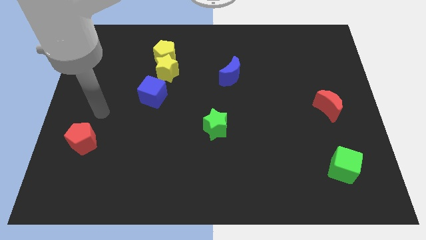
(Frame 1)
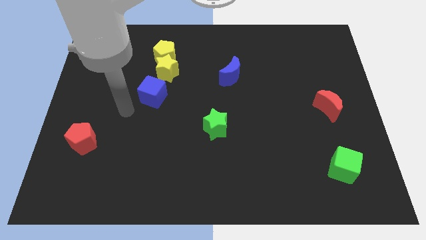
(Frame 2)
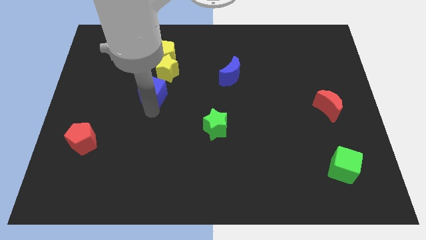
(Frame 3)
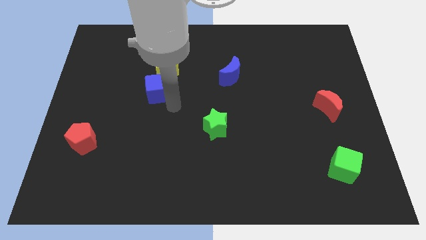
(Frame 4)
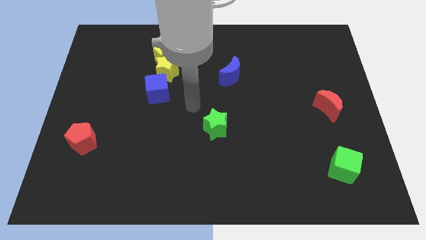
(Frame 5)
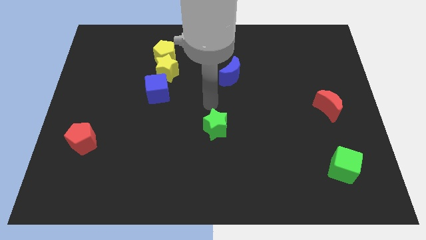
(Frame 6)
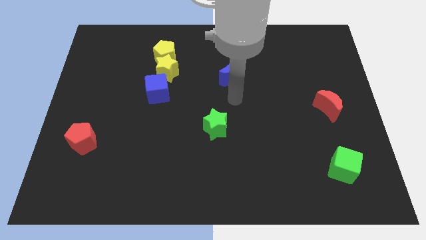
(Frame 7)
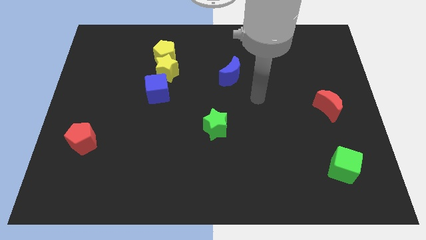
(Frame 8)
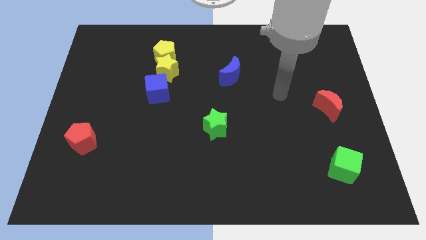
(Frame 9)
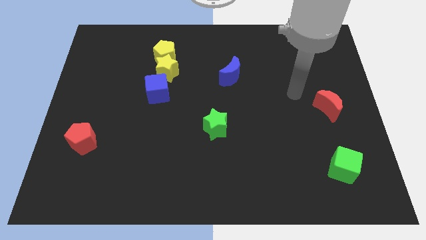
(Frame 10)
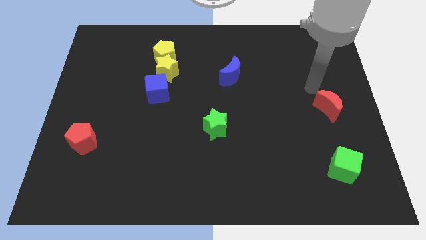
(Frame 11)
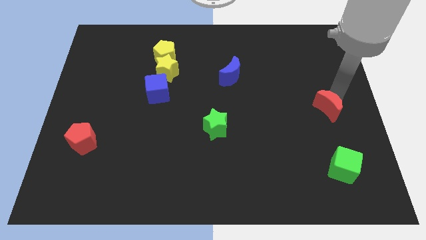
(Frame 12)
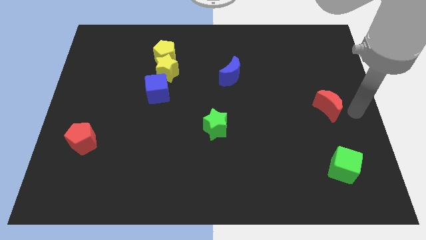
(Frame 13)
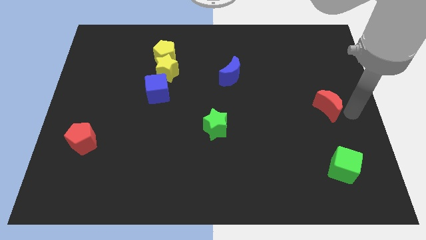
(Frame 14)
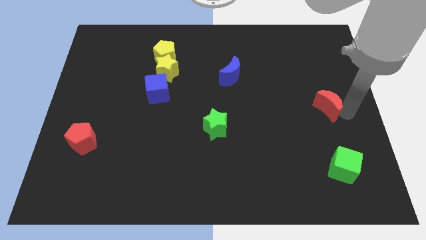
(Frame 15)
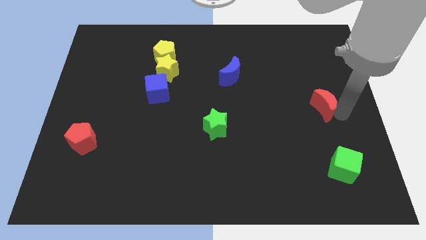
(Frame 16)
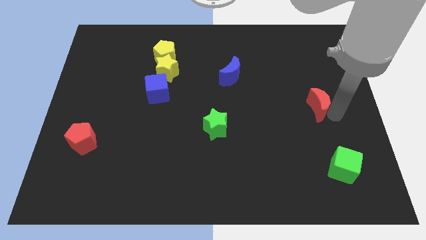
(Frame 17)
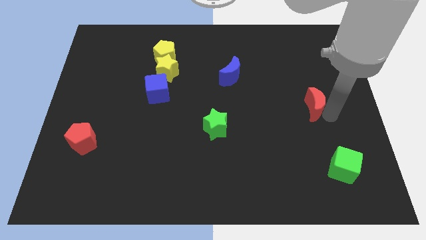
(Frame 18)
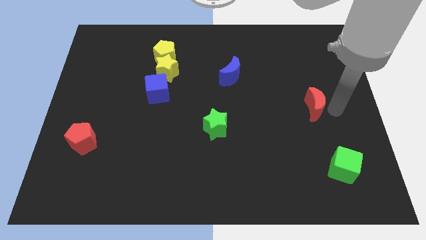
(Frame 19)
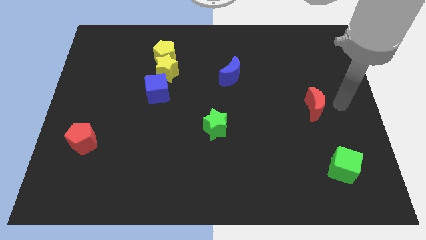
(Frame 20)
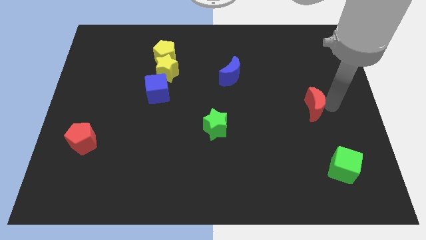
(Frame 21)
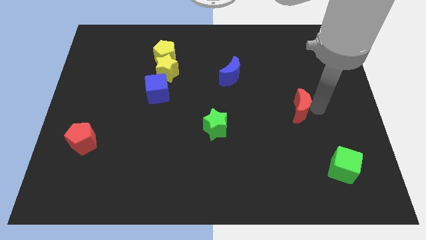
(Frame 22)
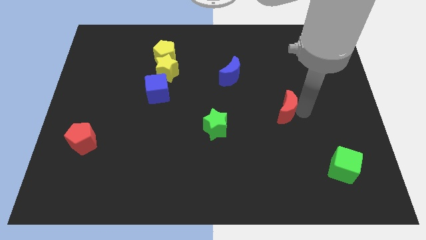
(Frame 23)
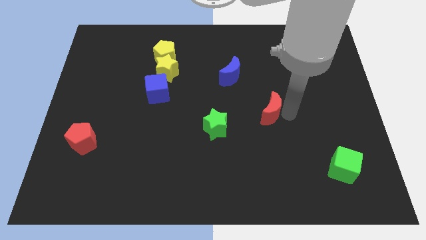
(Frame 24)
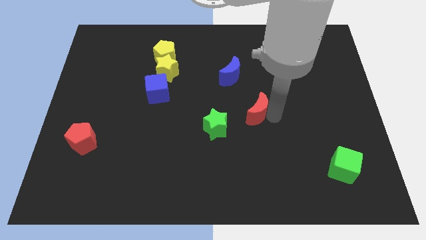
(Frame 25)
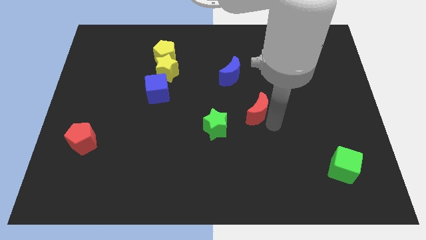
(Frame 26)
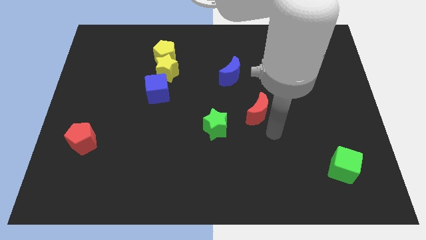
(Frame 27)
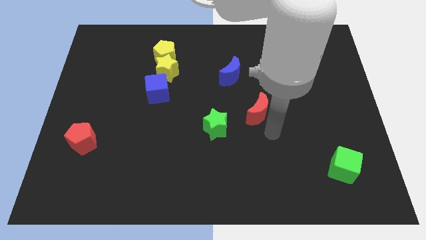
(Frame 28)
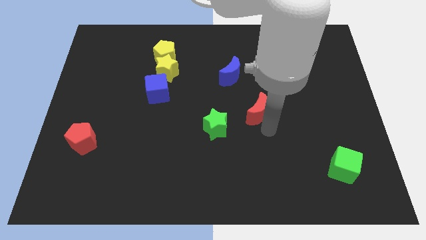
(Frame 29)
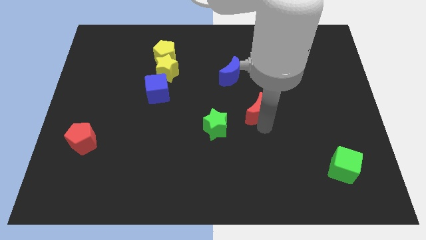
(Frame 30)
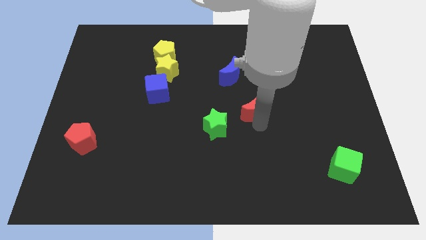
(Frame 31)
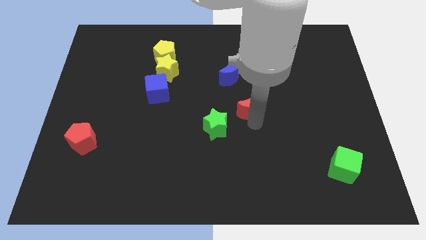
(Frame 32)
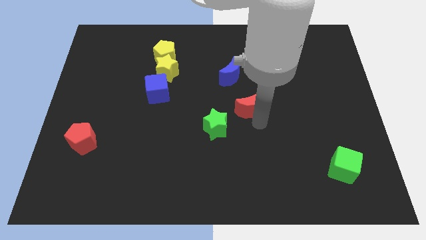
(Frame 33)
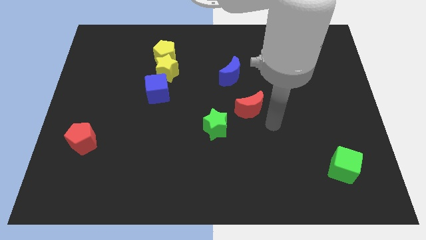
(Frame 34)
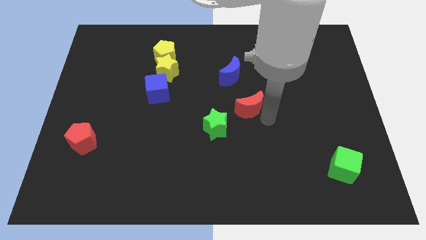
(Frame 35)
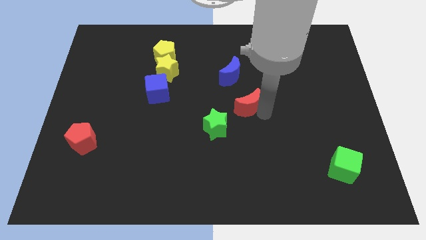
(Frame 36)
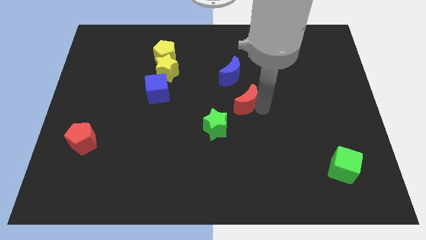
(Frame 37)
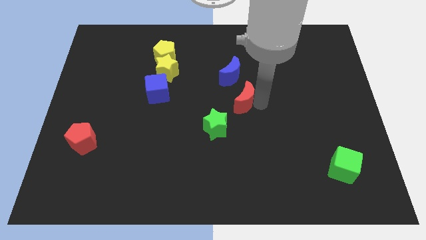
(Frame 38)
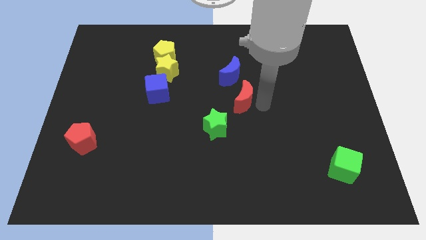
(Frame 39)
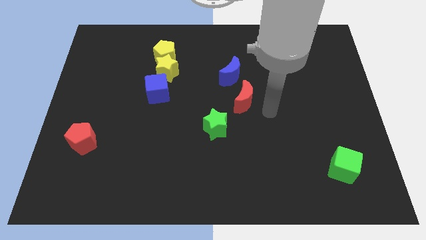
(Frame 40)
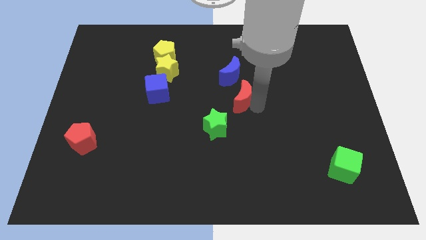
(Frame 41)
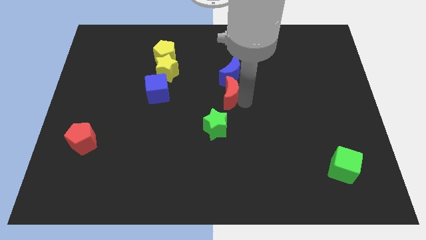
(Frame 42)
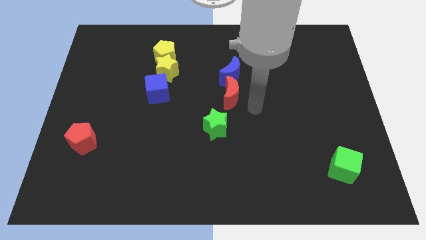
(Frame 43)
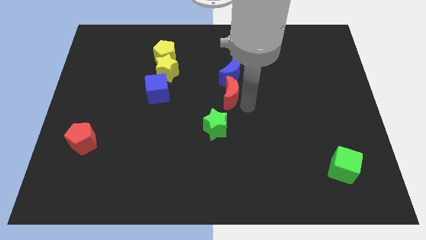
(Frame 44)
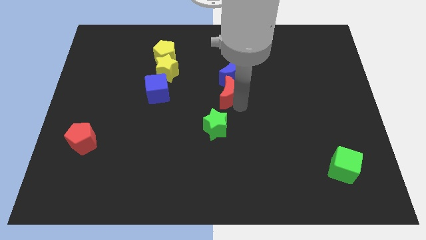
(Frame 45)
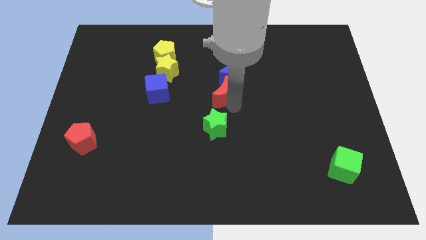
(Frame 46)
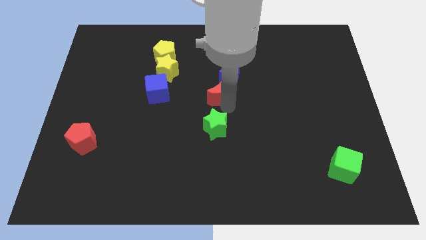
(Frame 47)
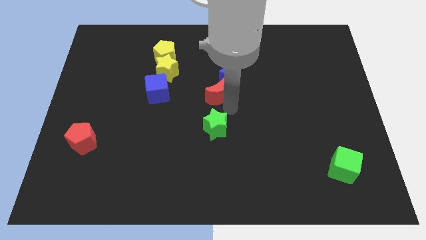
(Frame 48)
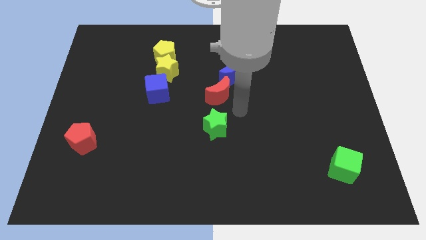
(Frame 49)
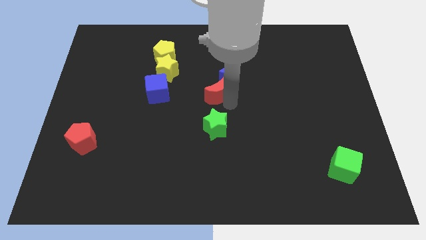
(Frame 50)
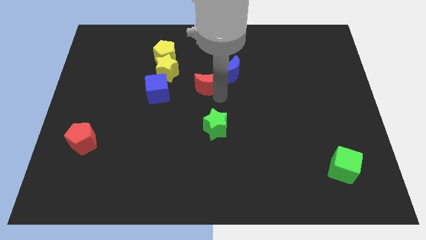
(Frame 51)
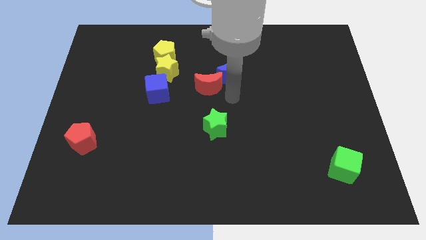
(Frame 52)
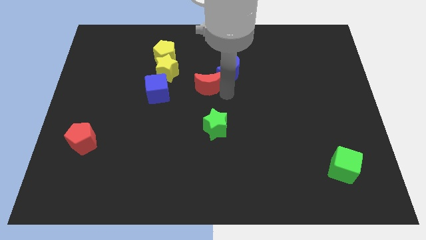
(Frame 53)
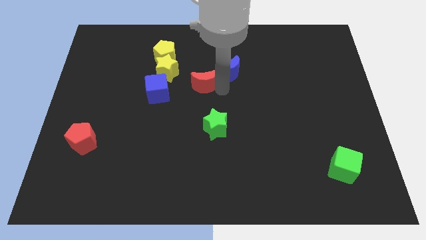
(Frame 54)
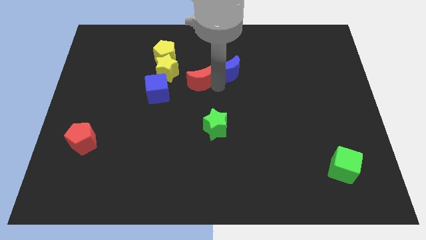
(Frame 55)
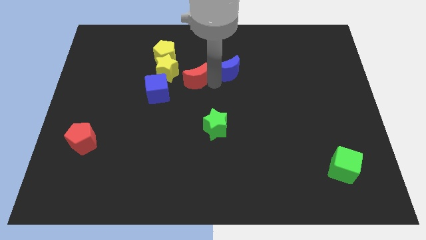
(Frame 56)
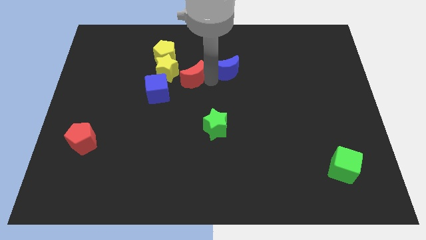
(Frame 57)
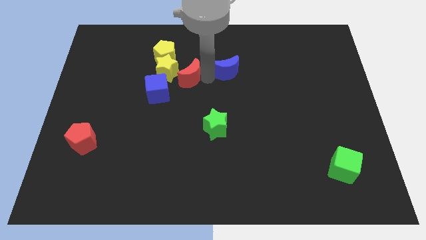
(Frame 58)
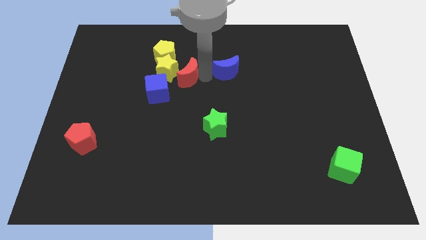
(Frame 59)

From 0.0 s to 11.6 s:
slide the red moon towards the yellow star

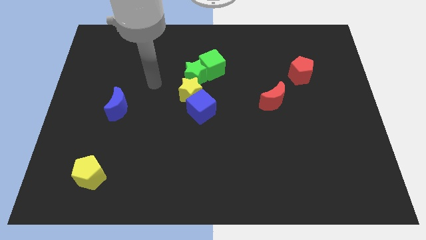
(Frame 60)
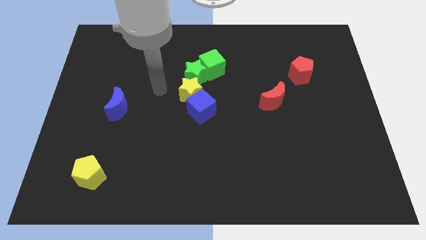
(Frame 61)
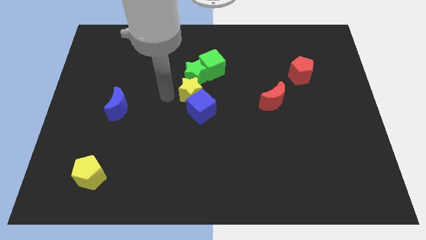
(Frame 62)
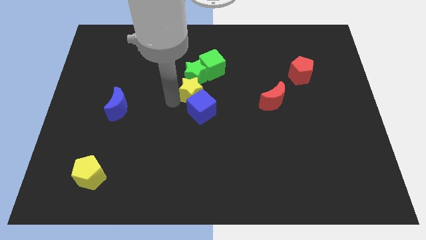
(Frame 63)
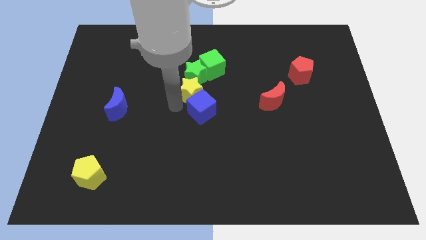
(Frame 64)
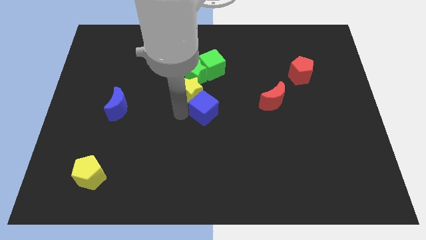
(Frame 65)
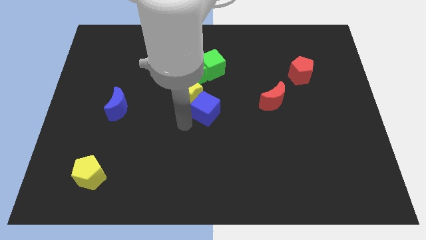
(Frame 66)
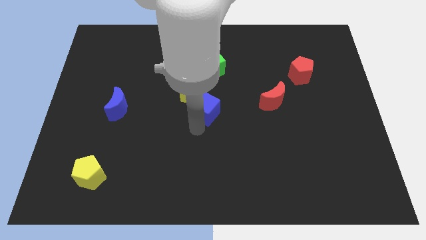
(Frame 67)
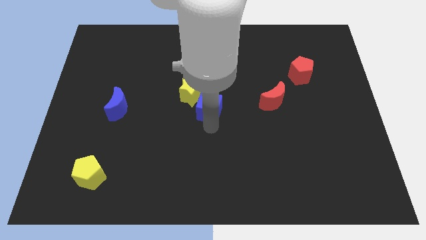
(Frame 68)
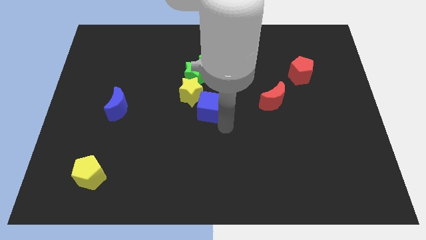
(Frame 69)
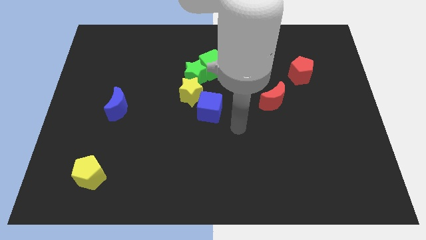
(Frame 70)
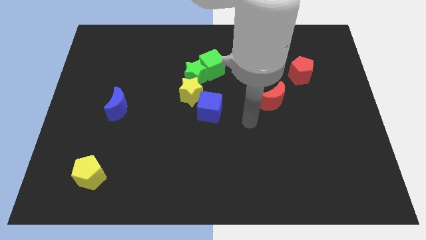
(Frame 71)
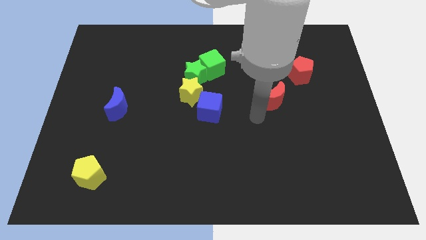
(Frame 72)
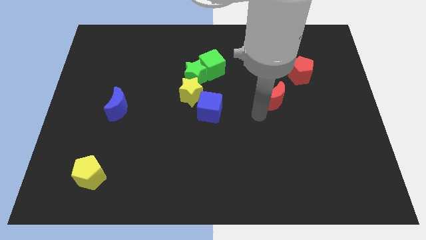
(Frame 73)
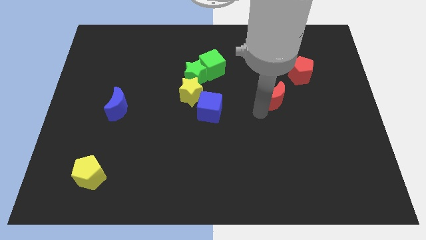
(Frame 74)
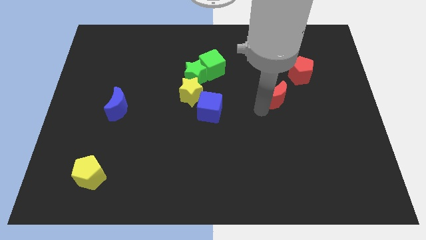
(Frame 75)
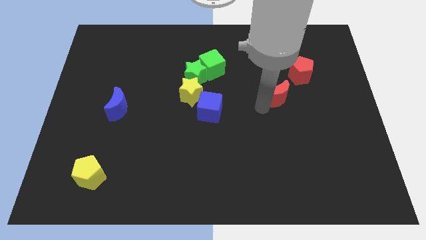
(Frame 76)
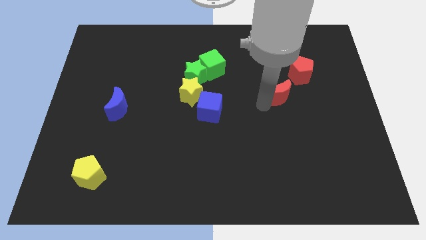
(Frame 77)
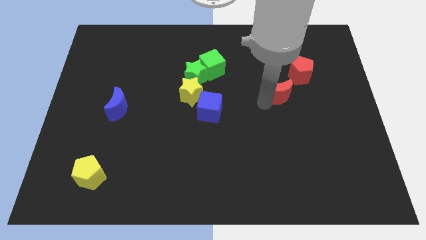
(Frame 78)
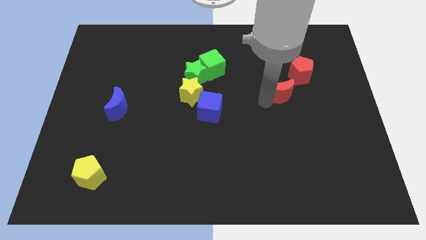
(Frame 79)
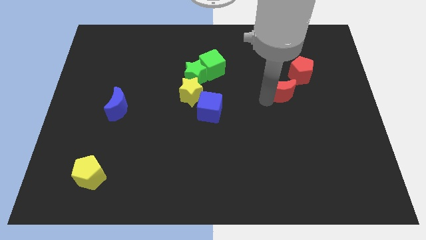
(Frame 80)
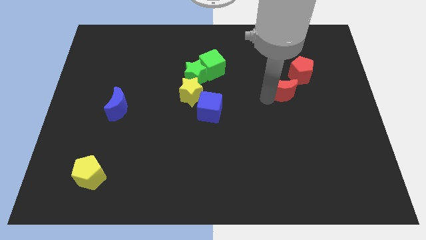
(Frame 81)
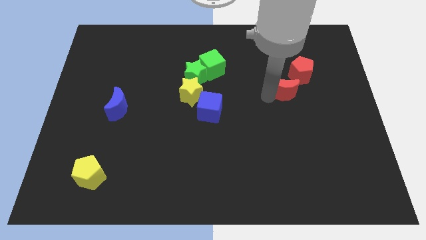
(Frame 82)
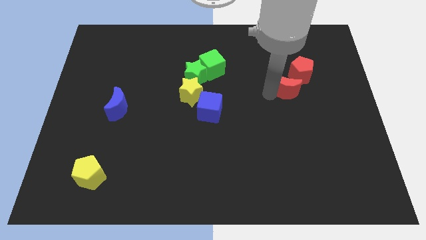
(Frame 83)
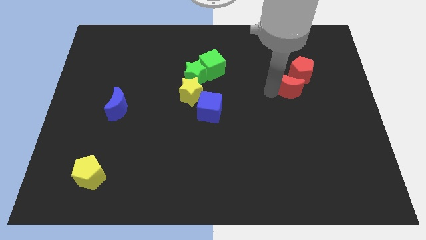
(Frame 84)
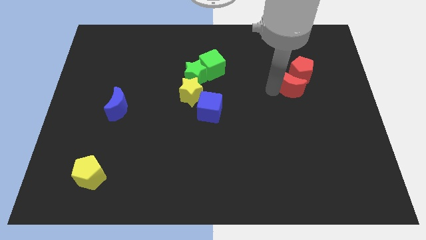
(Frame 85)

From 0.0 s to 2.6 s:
push the red moon to the red pentagon
